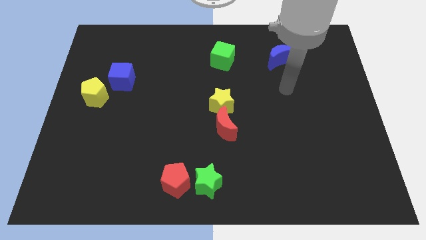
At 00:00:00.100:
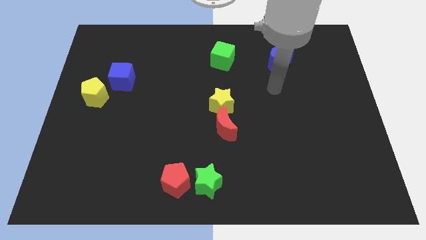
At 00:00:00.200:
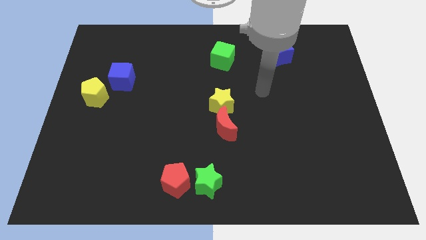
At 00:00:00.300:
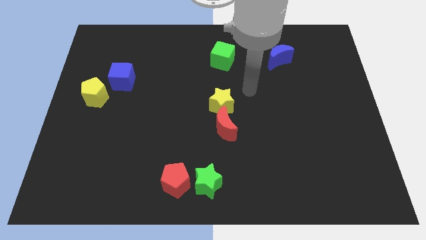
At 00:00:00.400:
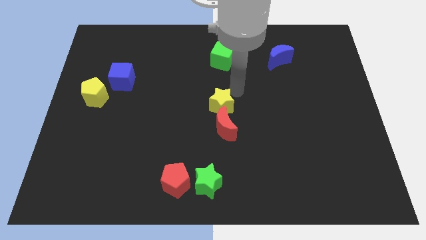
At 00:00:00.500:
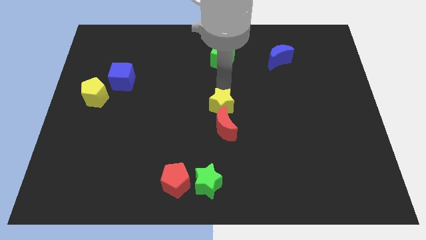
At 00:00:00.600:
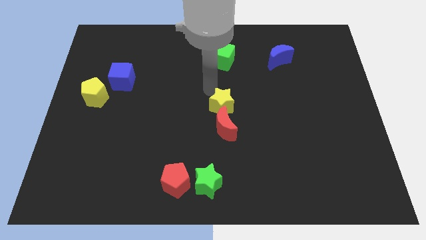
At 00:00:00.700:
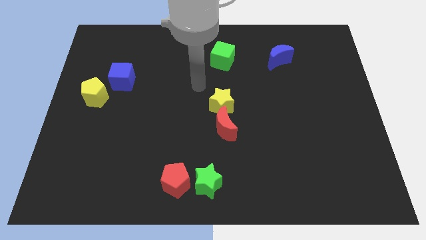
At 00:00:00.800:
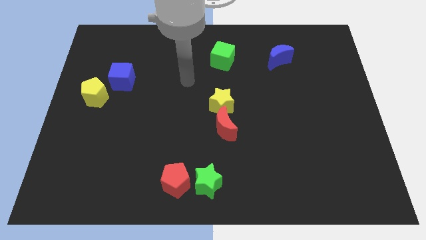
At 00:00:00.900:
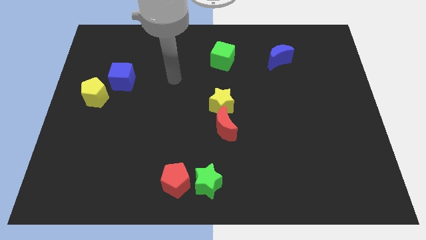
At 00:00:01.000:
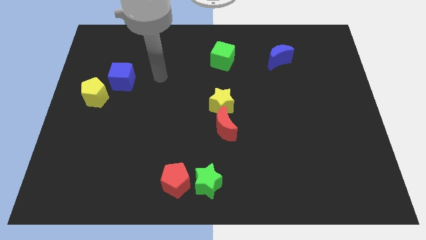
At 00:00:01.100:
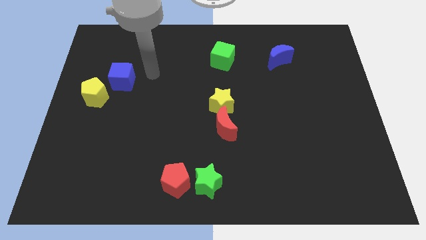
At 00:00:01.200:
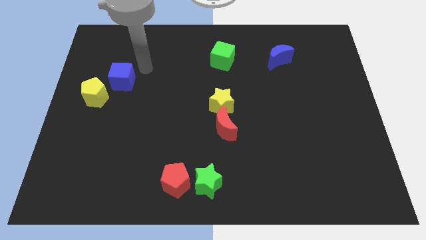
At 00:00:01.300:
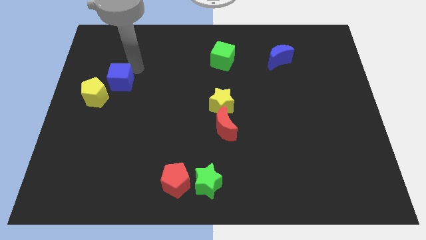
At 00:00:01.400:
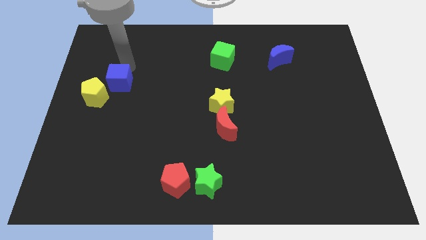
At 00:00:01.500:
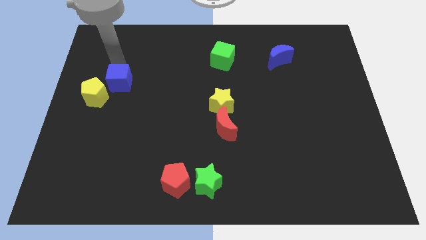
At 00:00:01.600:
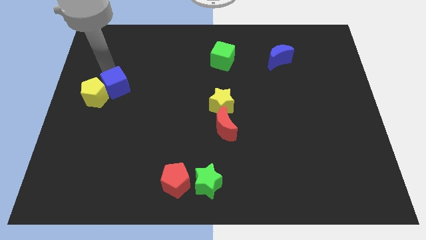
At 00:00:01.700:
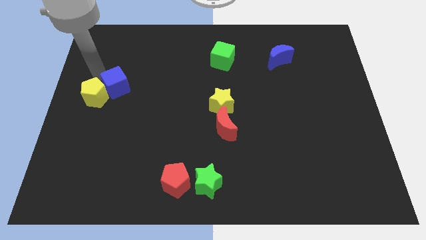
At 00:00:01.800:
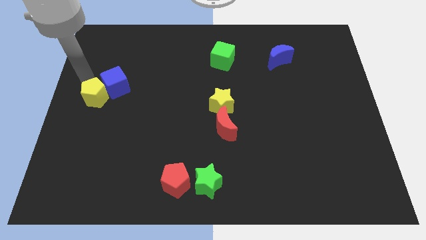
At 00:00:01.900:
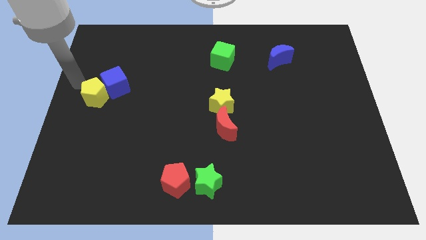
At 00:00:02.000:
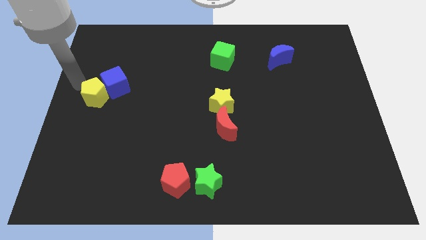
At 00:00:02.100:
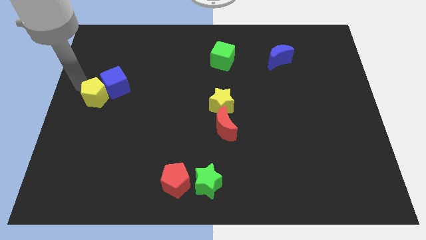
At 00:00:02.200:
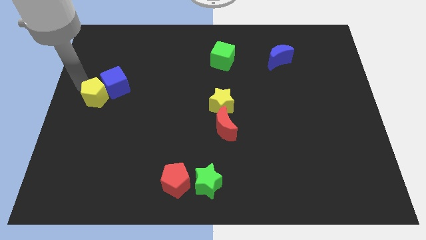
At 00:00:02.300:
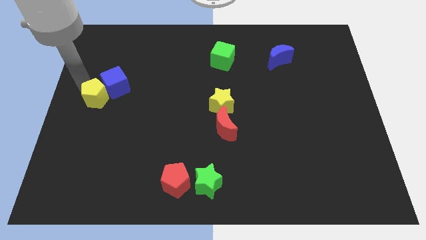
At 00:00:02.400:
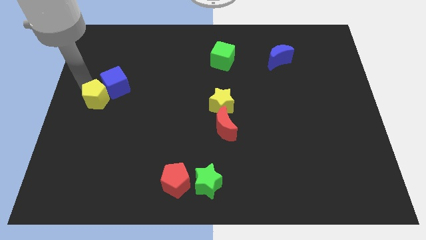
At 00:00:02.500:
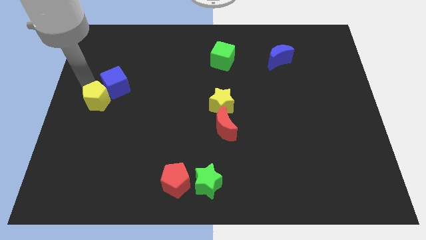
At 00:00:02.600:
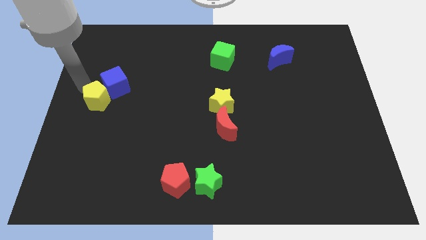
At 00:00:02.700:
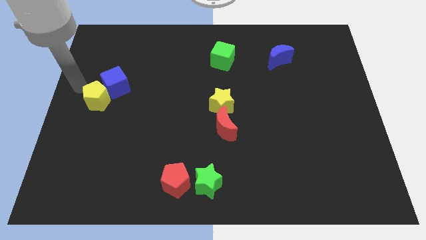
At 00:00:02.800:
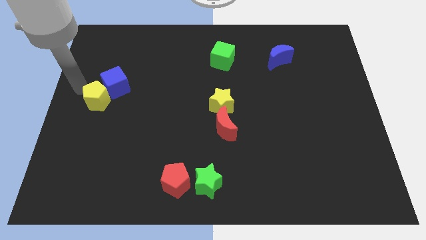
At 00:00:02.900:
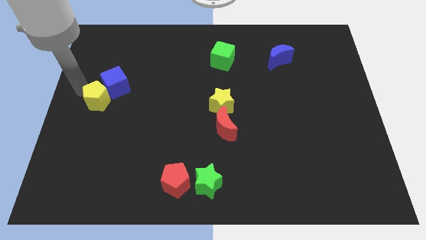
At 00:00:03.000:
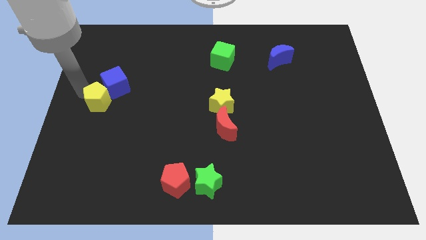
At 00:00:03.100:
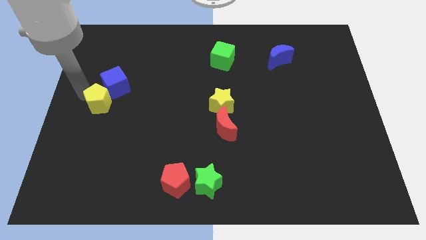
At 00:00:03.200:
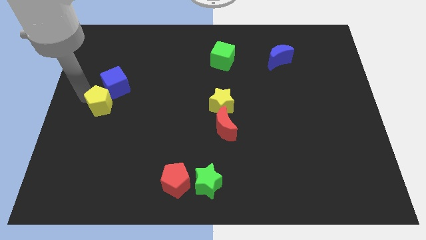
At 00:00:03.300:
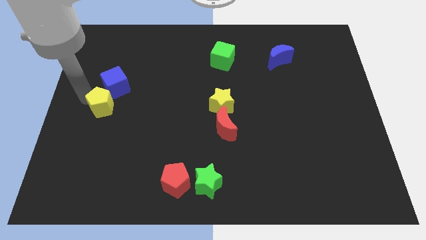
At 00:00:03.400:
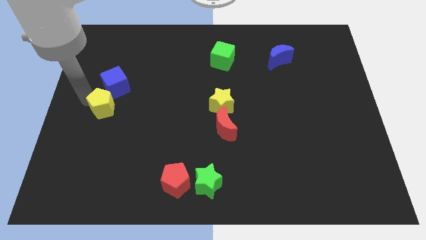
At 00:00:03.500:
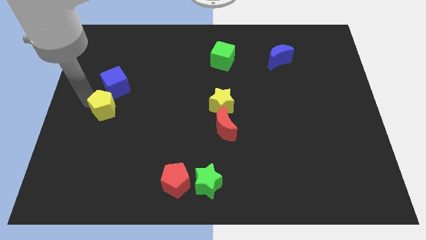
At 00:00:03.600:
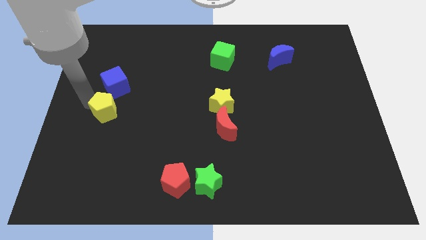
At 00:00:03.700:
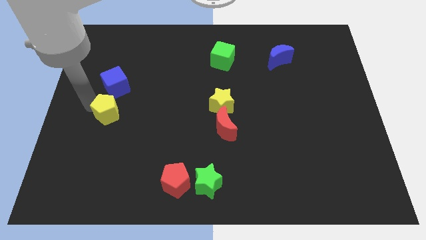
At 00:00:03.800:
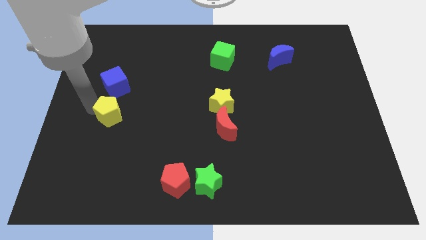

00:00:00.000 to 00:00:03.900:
slightly move the yellow pentagon downwards and to the right

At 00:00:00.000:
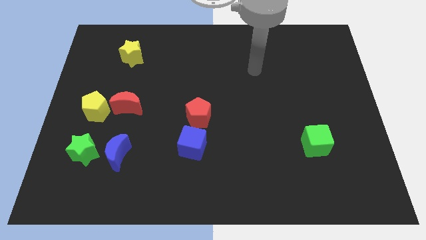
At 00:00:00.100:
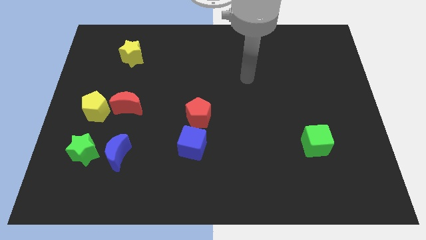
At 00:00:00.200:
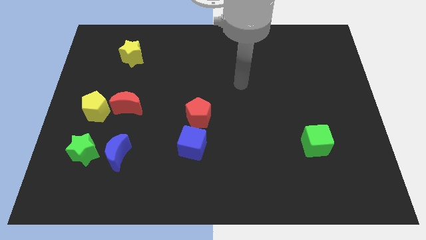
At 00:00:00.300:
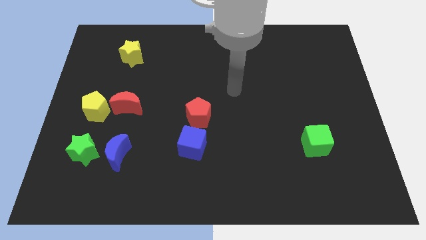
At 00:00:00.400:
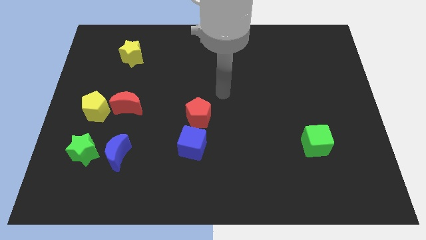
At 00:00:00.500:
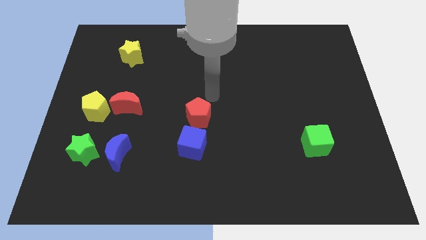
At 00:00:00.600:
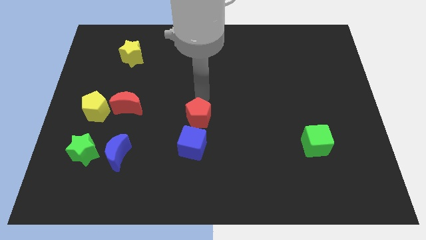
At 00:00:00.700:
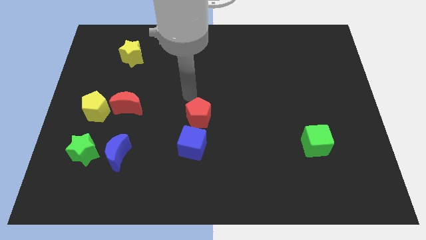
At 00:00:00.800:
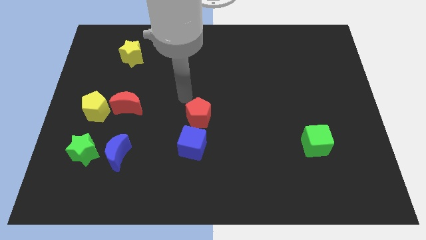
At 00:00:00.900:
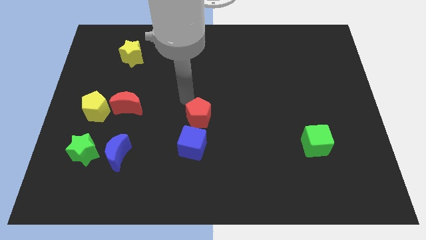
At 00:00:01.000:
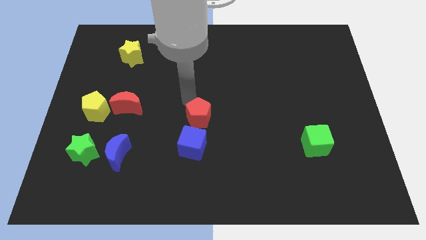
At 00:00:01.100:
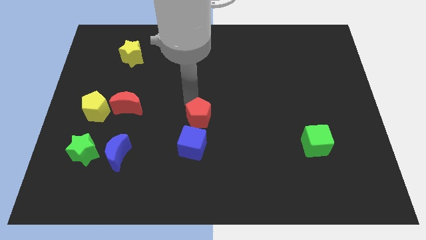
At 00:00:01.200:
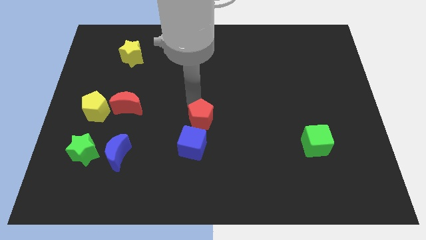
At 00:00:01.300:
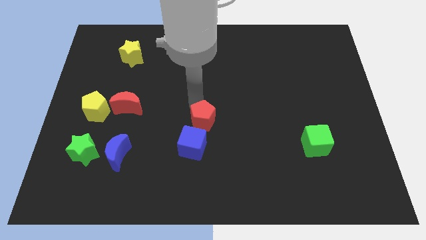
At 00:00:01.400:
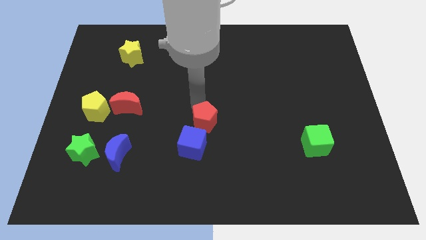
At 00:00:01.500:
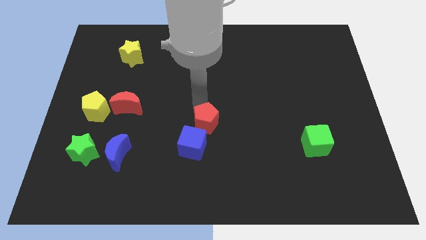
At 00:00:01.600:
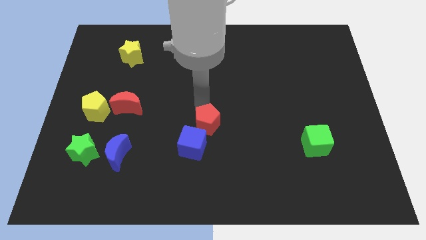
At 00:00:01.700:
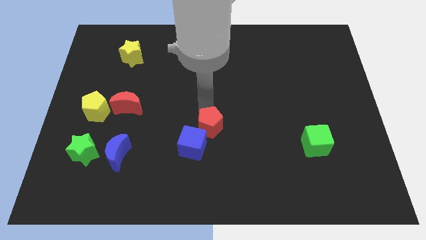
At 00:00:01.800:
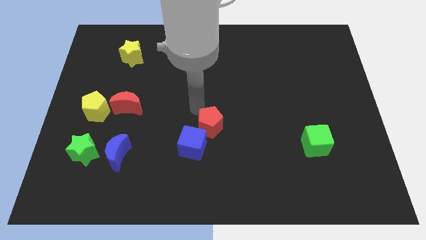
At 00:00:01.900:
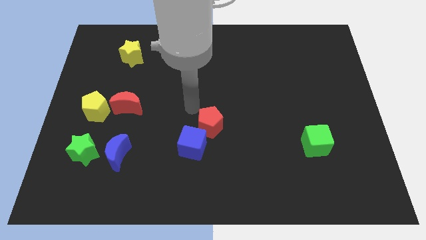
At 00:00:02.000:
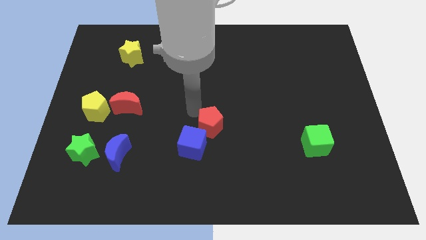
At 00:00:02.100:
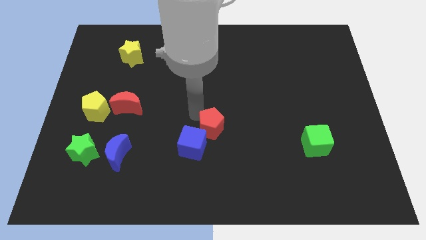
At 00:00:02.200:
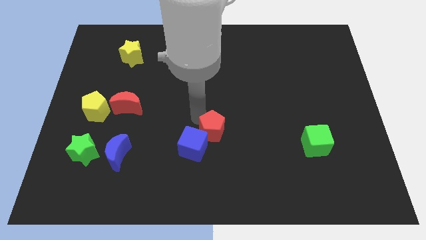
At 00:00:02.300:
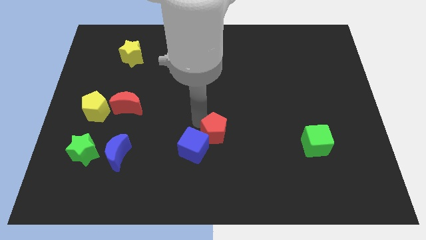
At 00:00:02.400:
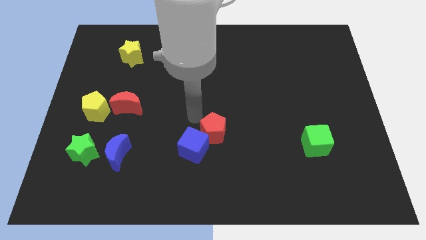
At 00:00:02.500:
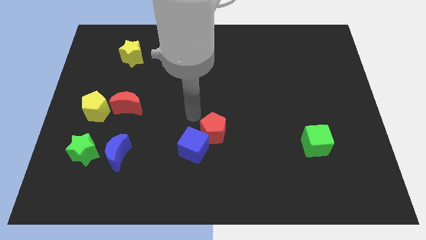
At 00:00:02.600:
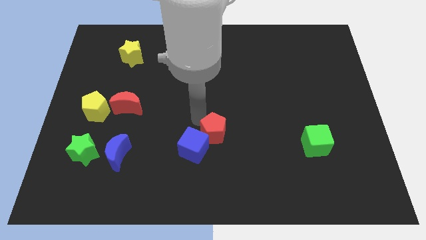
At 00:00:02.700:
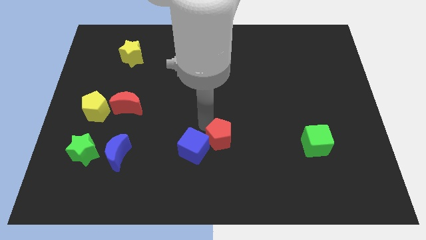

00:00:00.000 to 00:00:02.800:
slide the red pentagon down and right diagonally somewhat

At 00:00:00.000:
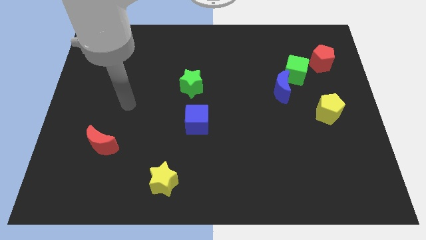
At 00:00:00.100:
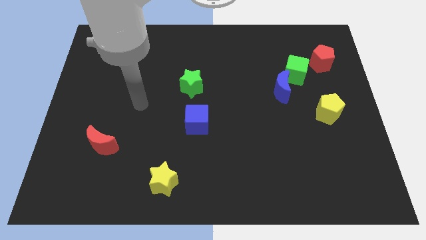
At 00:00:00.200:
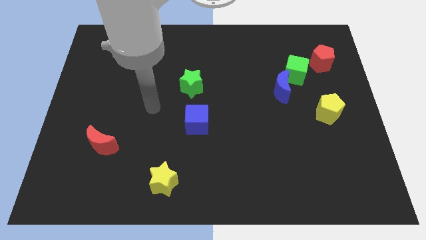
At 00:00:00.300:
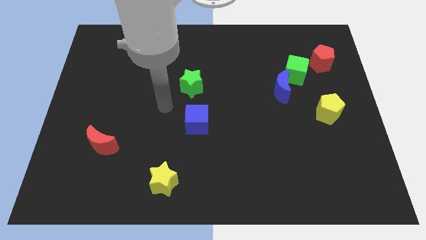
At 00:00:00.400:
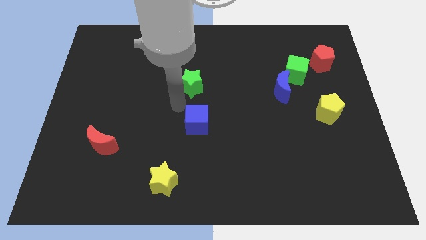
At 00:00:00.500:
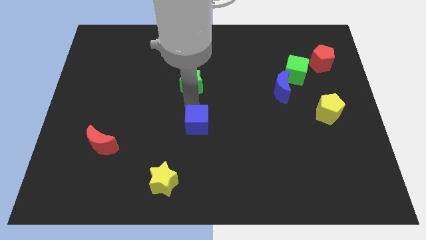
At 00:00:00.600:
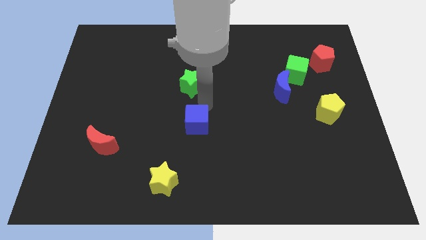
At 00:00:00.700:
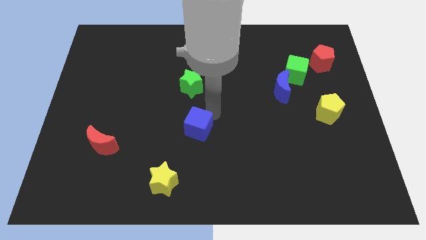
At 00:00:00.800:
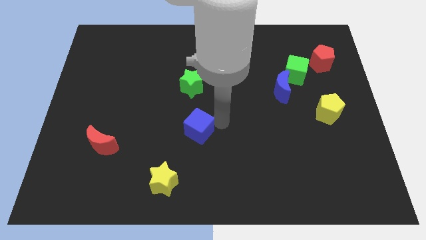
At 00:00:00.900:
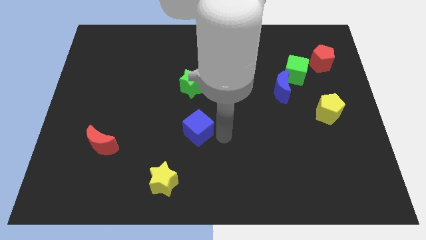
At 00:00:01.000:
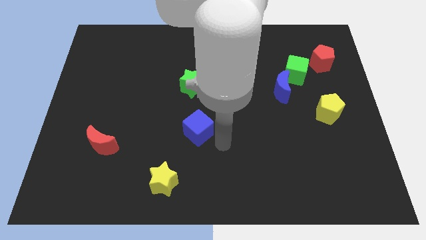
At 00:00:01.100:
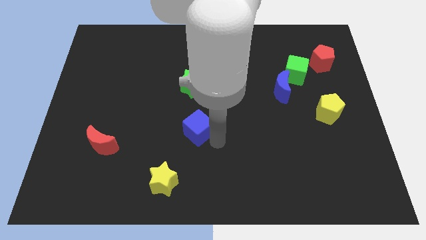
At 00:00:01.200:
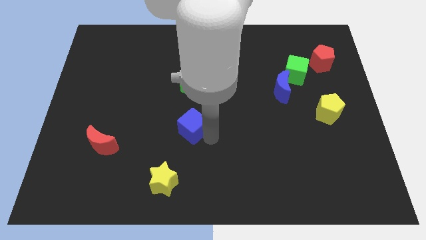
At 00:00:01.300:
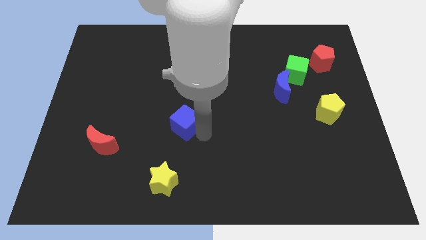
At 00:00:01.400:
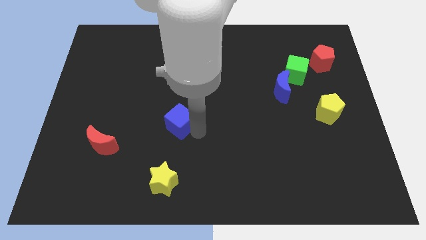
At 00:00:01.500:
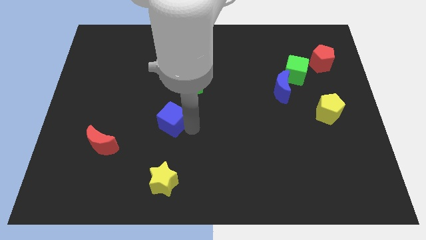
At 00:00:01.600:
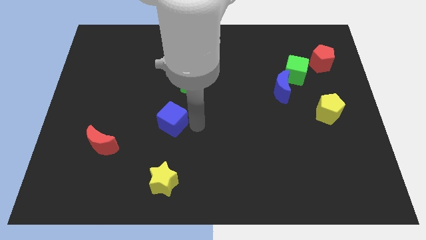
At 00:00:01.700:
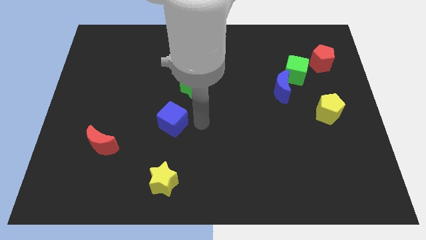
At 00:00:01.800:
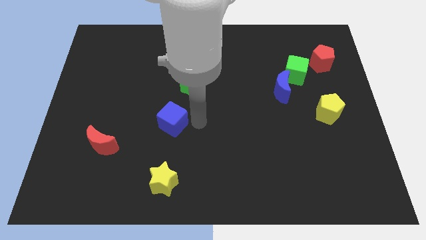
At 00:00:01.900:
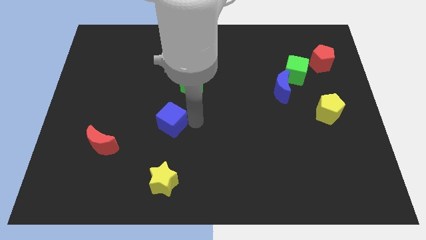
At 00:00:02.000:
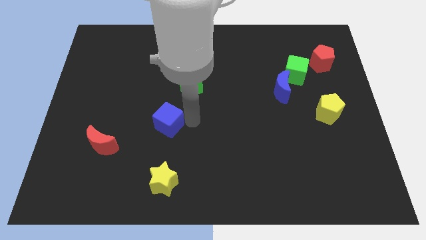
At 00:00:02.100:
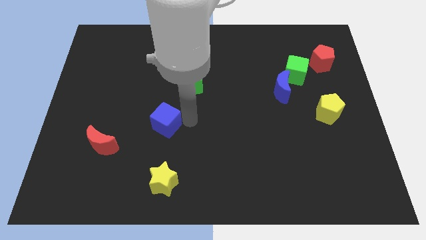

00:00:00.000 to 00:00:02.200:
move the blue cube a little to the left
